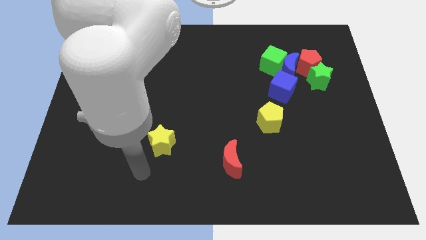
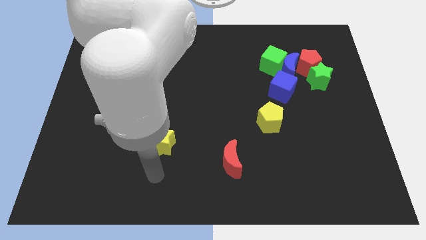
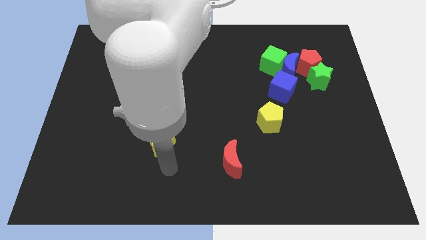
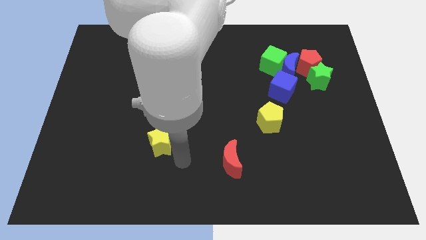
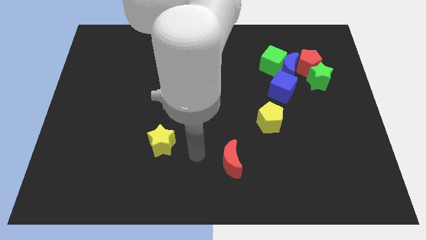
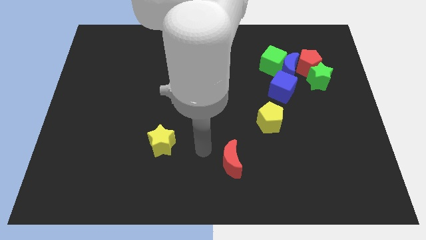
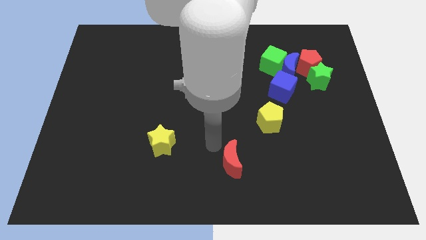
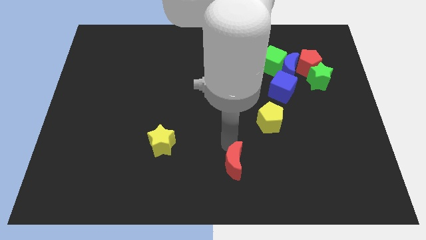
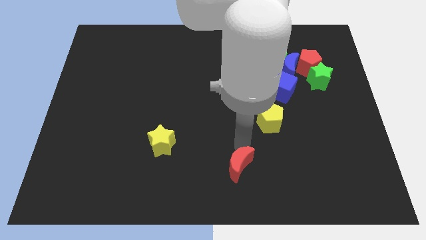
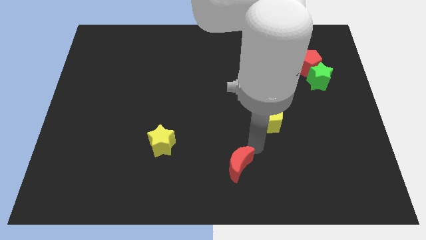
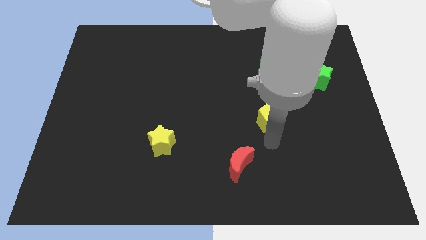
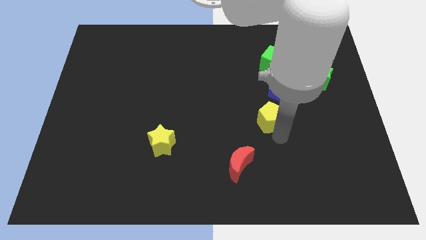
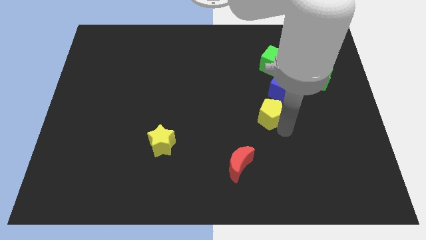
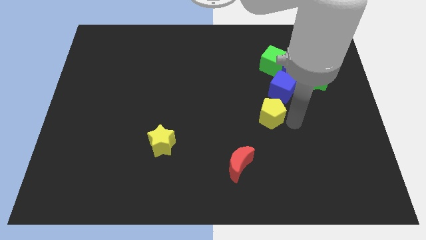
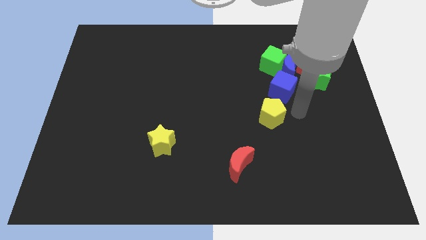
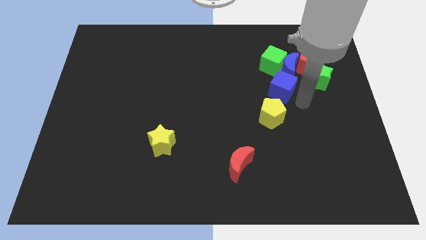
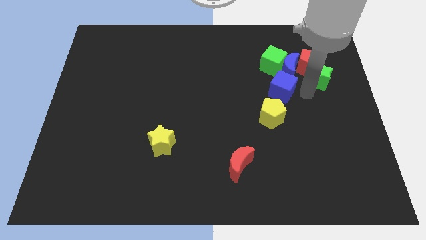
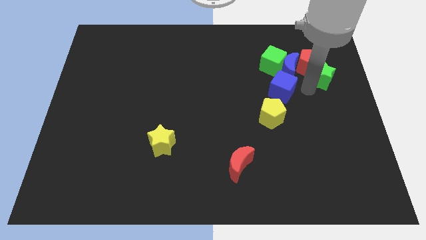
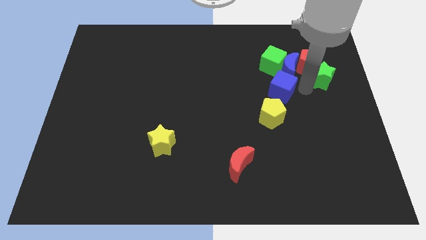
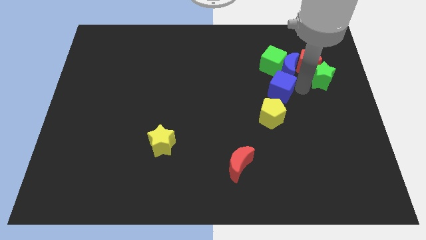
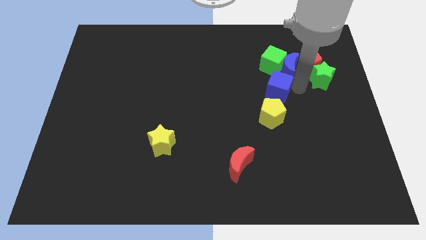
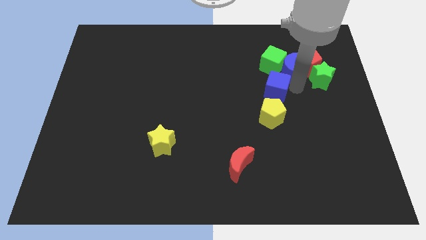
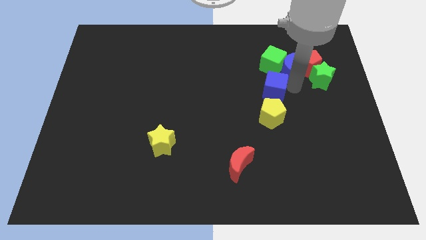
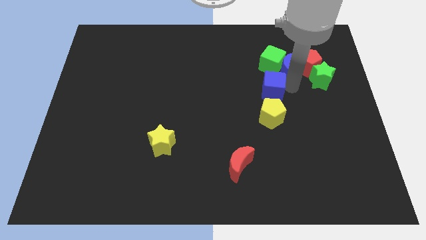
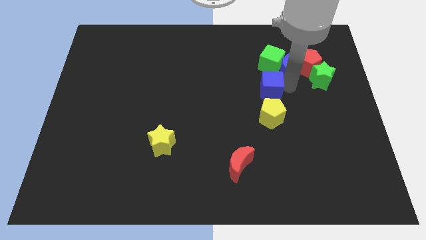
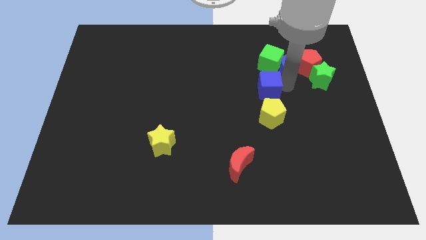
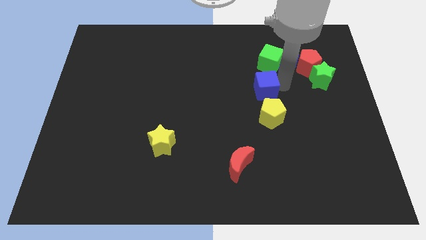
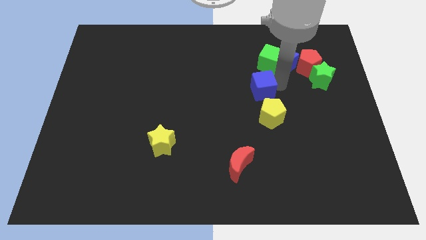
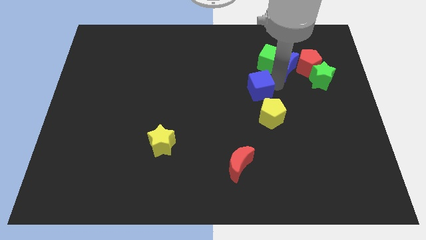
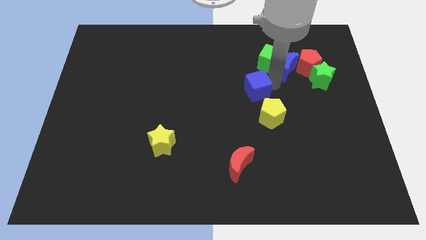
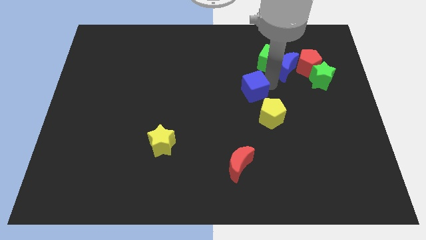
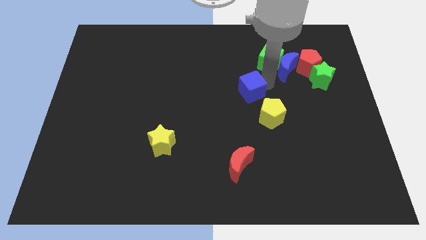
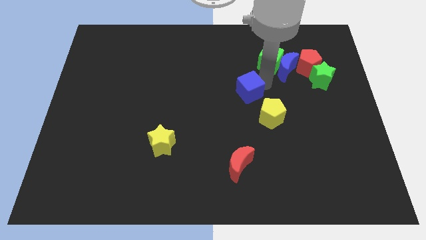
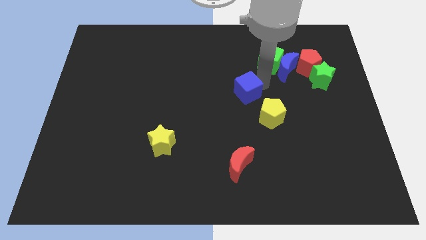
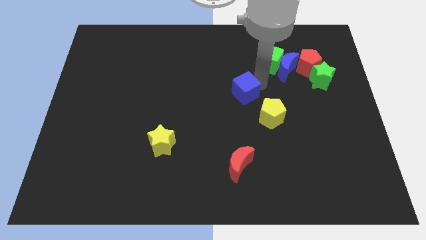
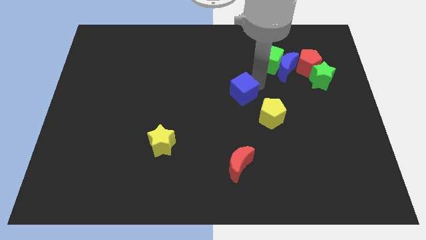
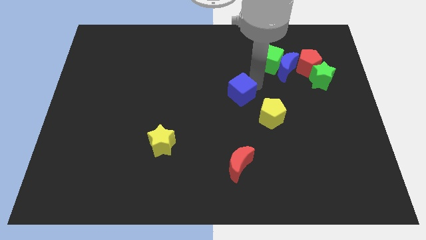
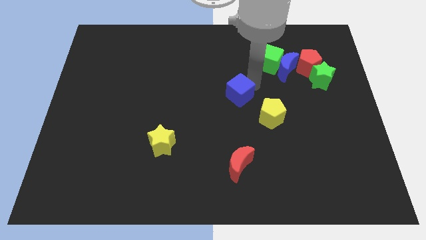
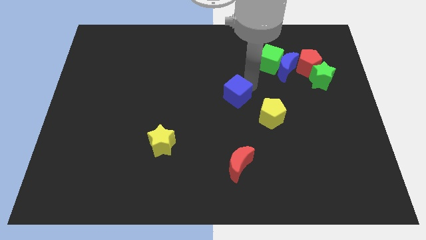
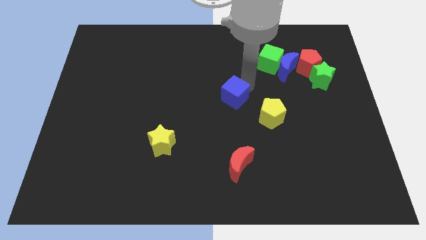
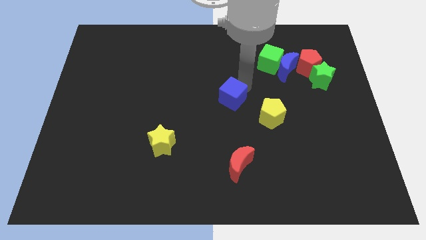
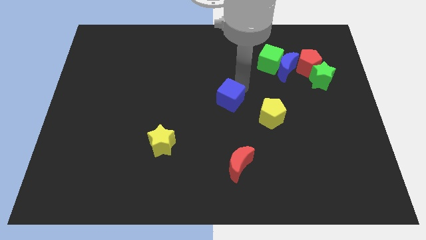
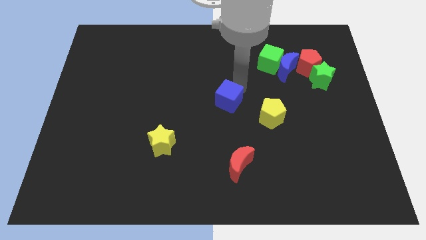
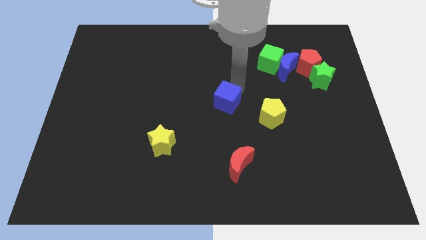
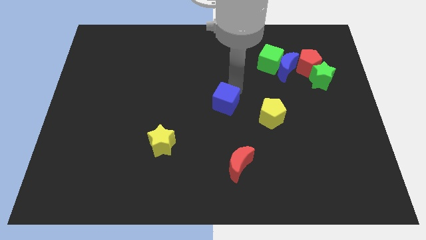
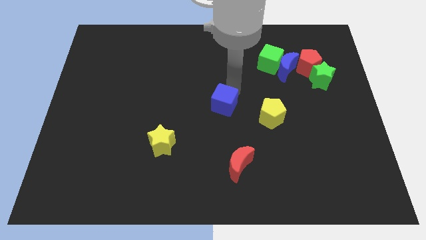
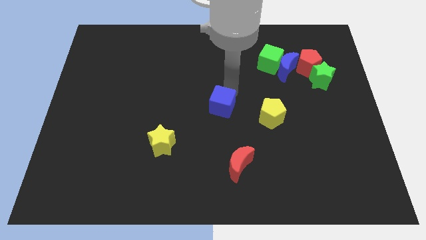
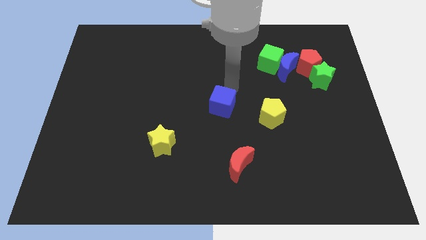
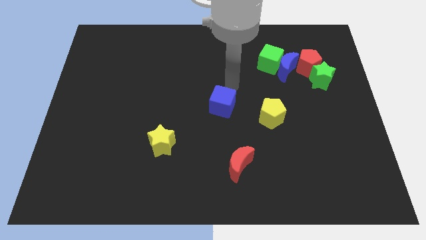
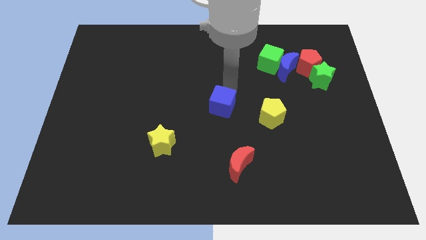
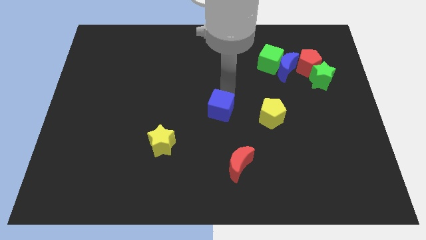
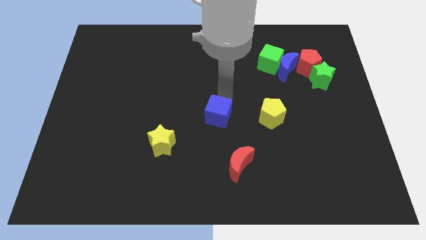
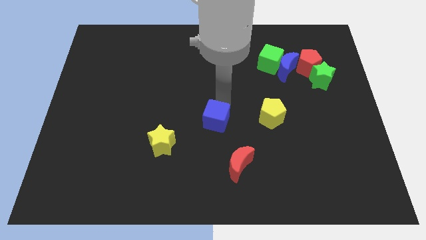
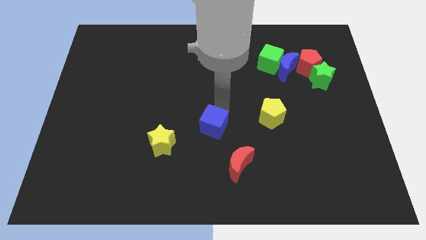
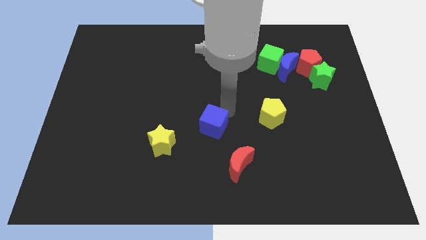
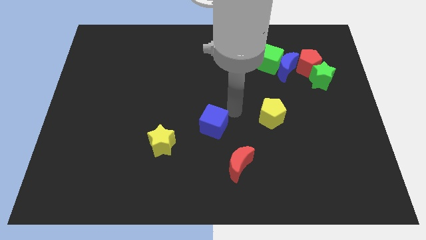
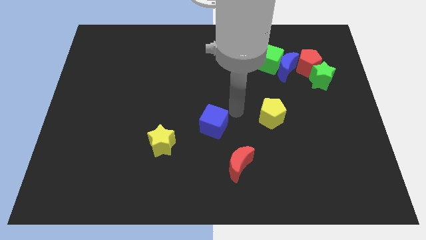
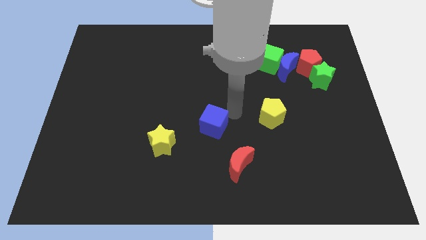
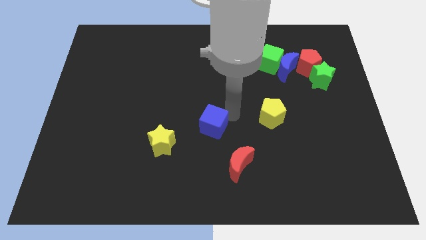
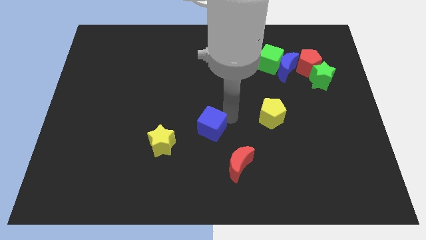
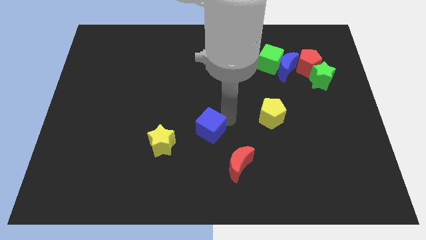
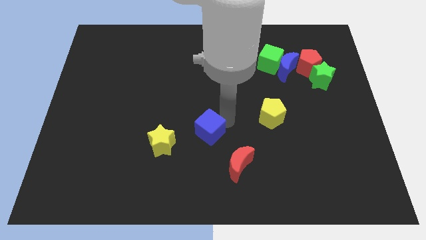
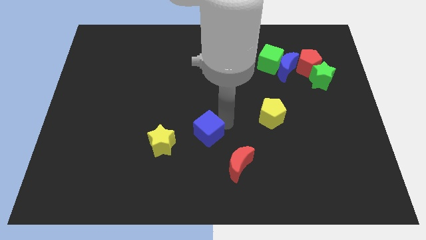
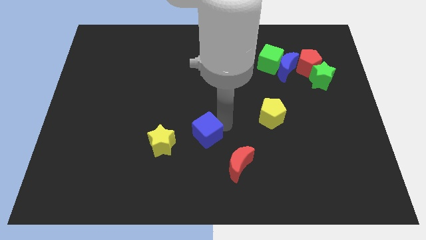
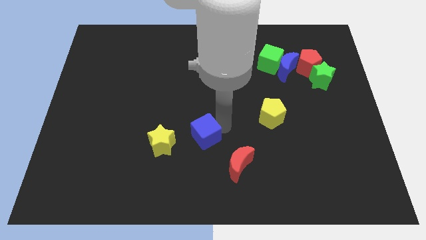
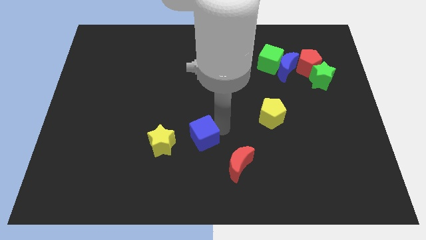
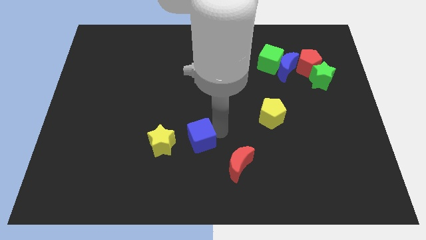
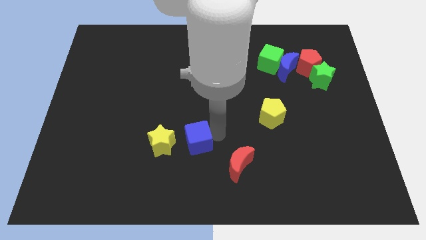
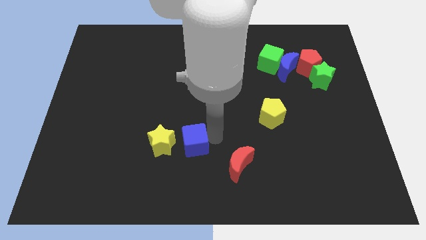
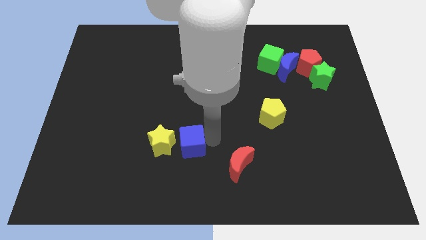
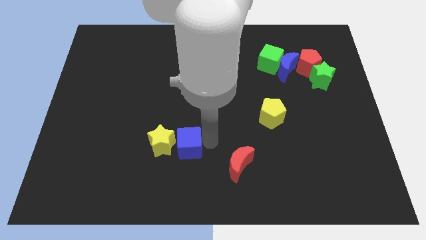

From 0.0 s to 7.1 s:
put the blue cube towards the yellow star

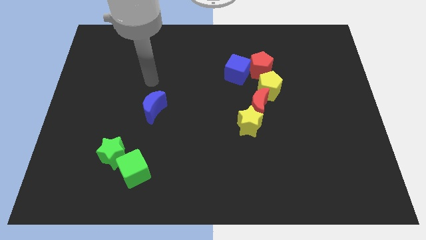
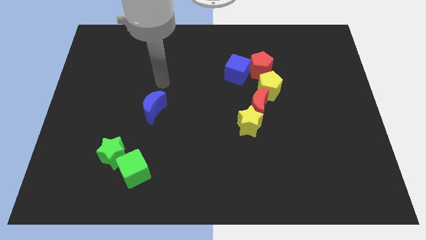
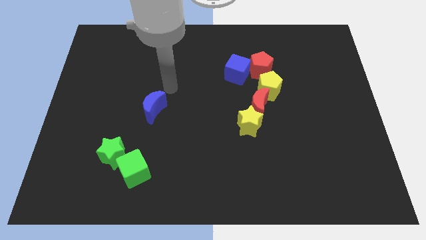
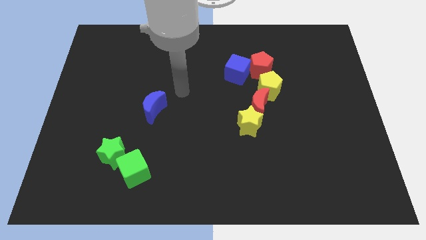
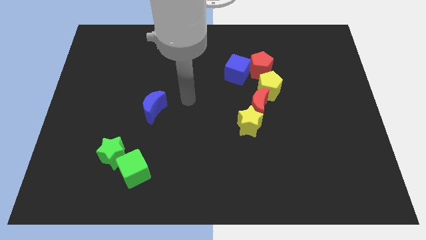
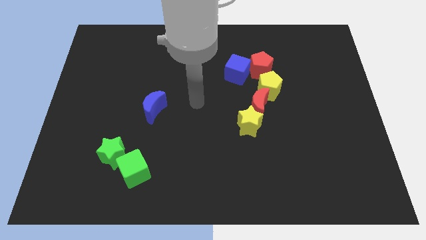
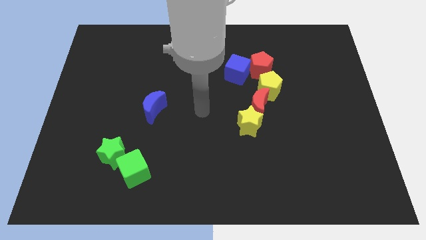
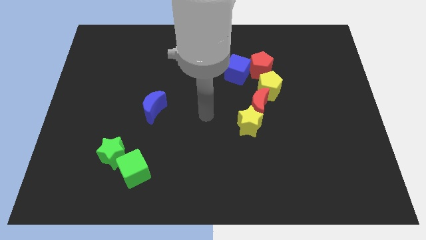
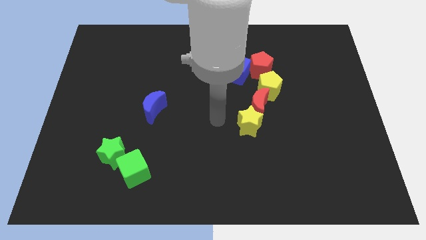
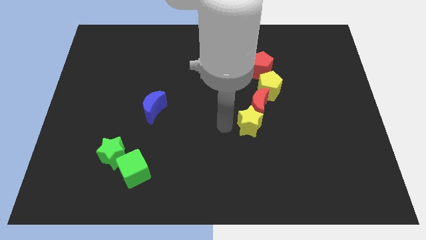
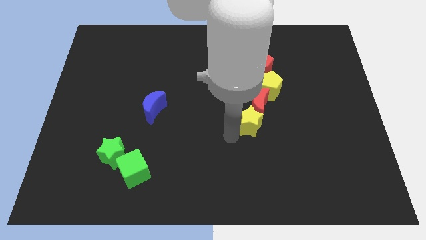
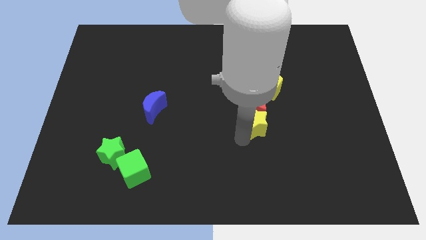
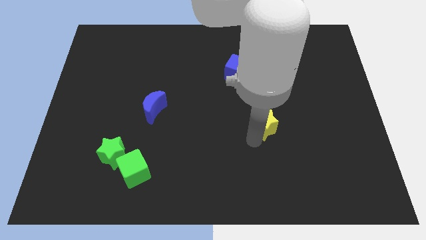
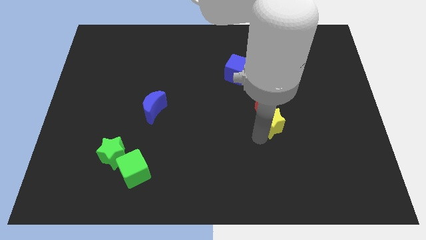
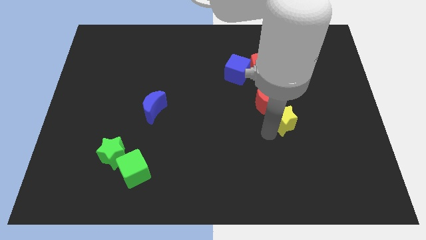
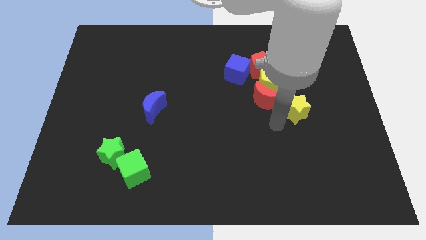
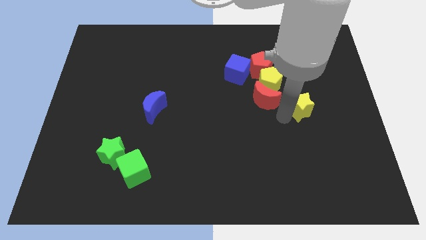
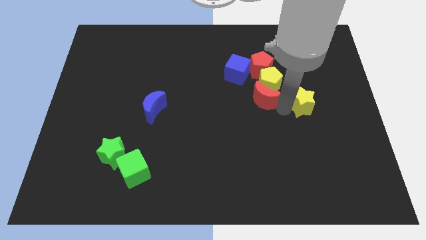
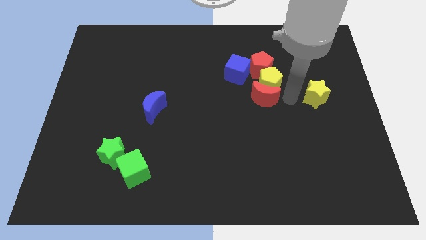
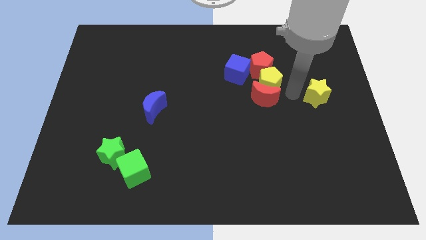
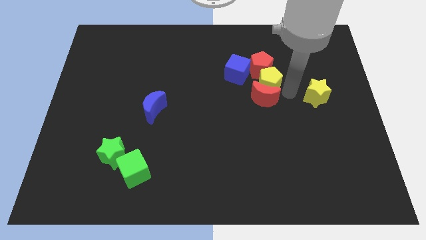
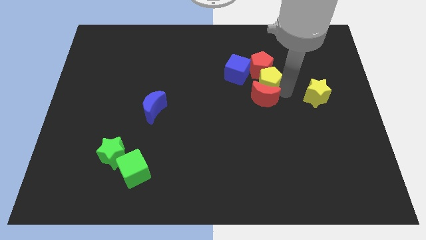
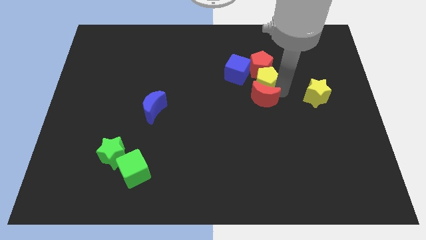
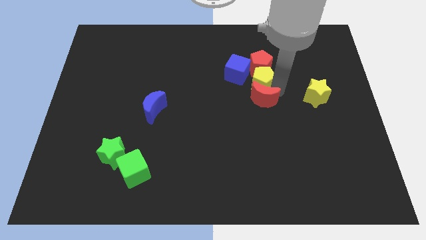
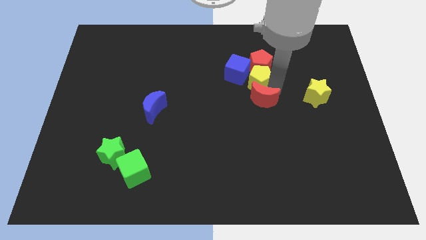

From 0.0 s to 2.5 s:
slide the yellow pentagon to the blue cube
